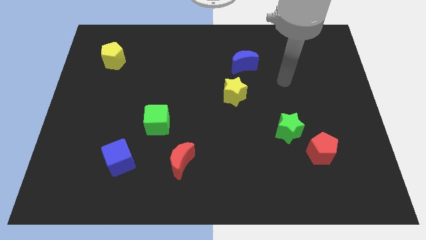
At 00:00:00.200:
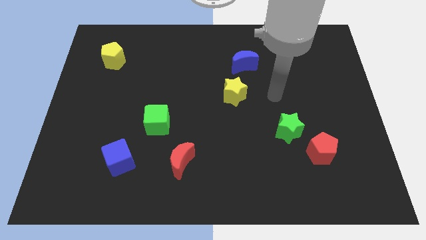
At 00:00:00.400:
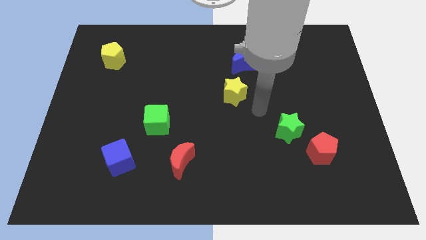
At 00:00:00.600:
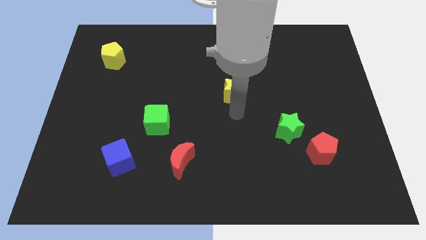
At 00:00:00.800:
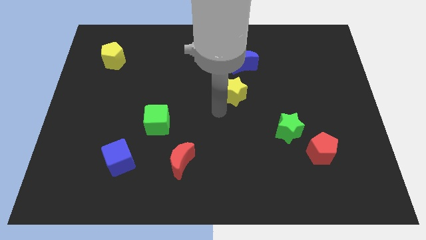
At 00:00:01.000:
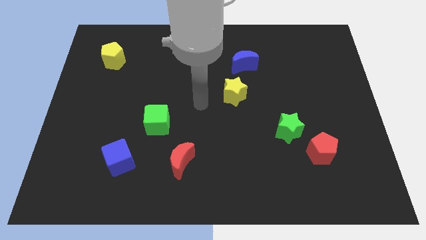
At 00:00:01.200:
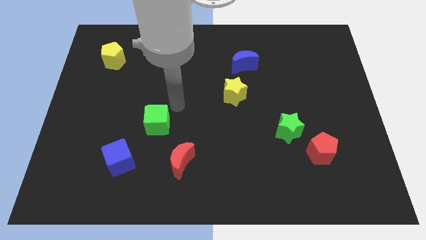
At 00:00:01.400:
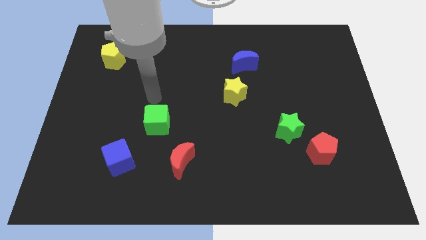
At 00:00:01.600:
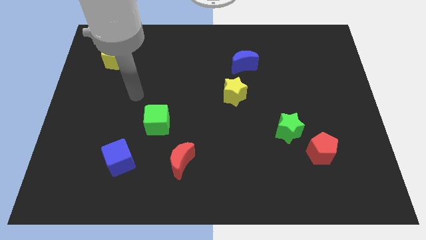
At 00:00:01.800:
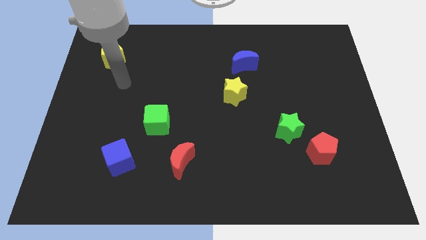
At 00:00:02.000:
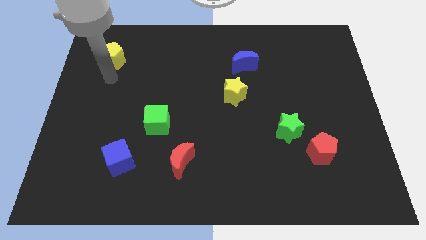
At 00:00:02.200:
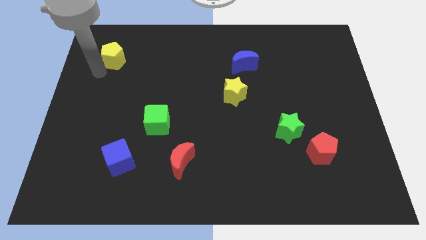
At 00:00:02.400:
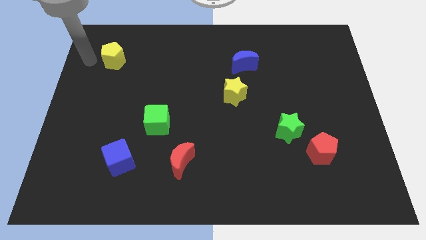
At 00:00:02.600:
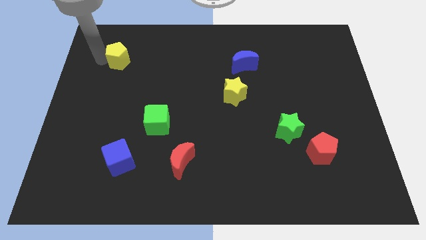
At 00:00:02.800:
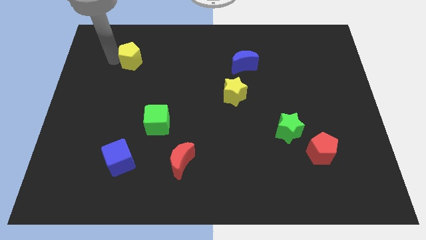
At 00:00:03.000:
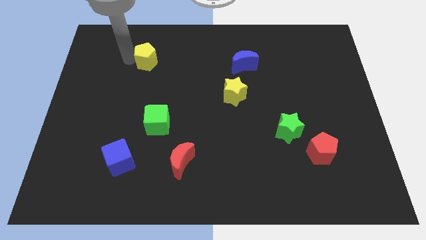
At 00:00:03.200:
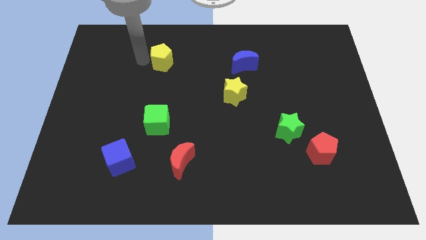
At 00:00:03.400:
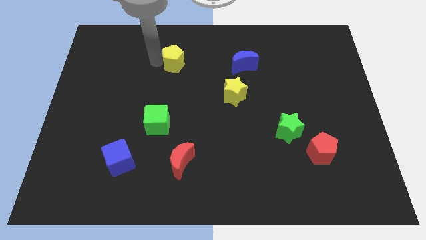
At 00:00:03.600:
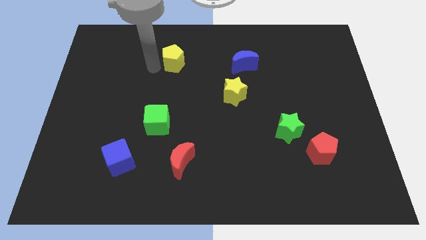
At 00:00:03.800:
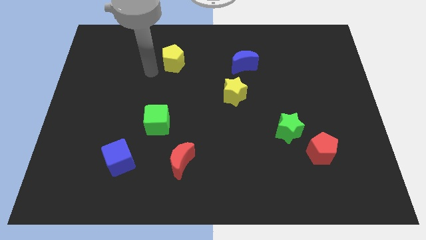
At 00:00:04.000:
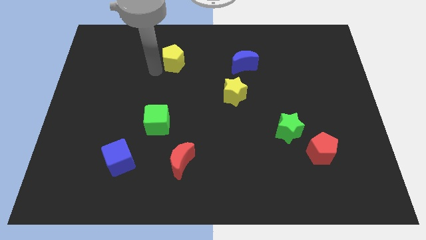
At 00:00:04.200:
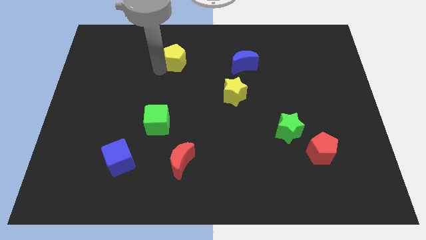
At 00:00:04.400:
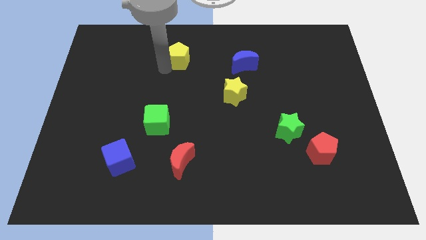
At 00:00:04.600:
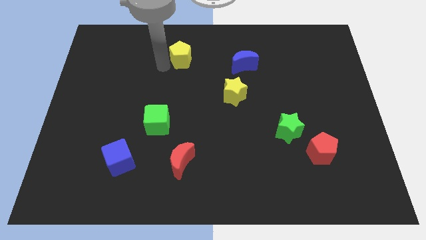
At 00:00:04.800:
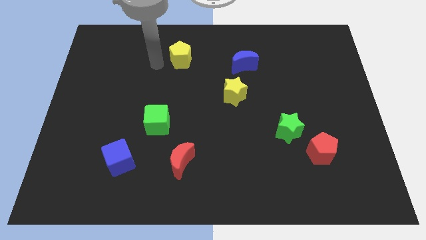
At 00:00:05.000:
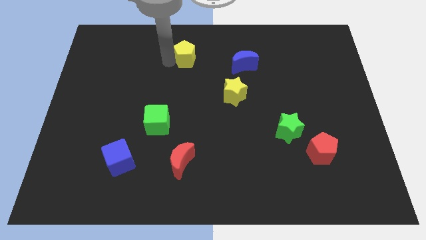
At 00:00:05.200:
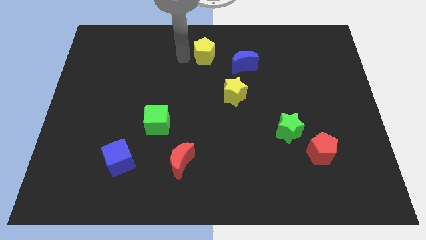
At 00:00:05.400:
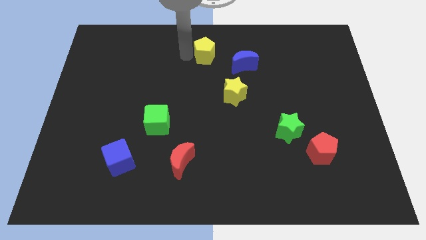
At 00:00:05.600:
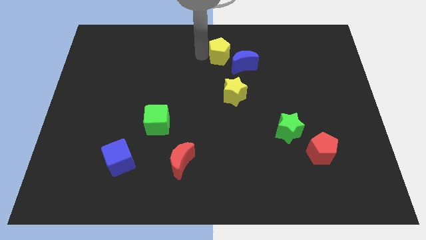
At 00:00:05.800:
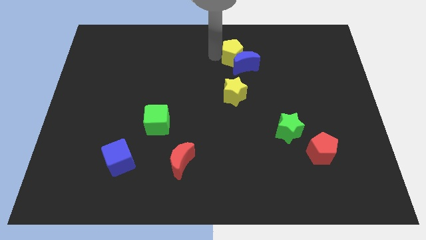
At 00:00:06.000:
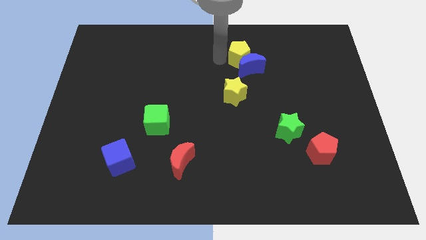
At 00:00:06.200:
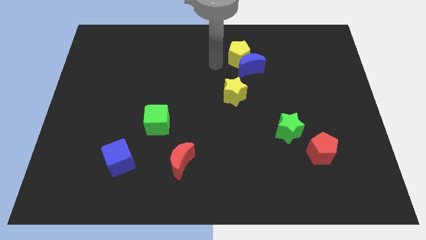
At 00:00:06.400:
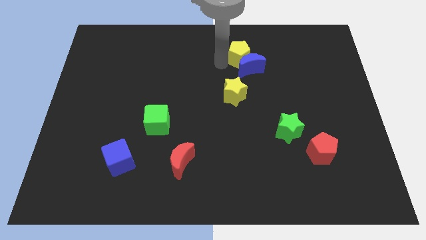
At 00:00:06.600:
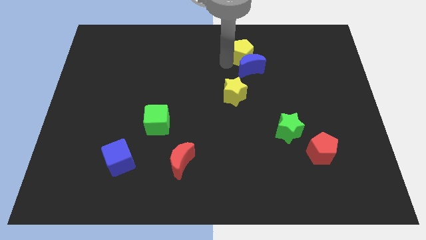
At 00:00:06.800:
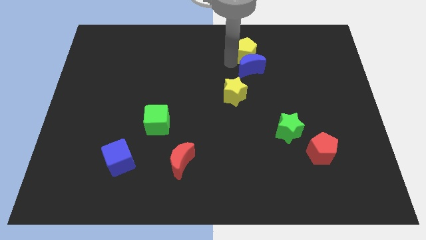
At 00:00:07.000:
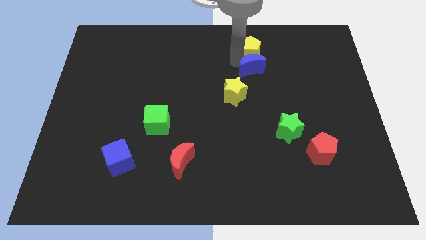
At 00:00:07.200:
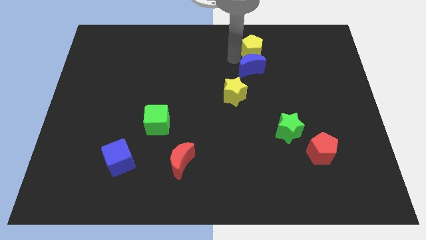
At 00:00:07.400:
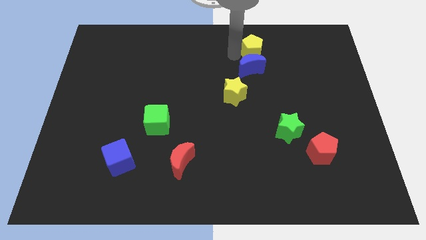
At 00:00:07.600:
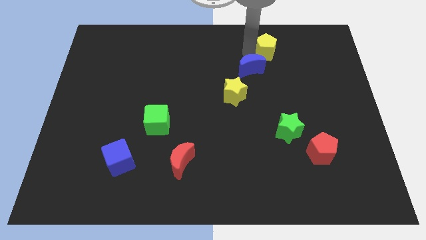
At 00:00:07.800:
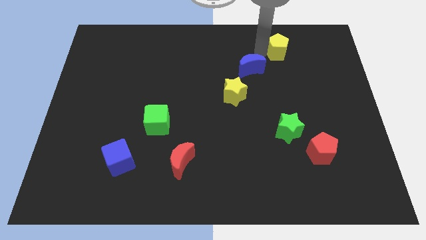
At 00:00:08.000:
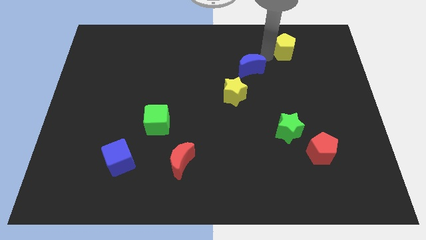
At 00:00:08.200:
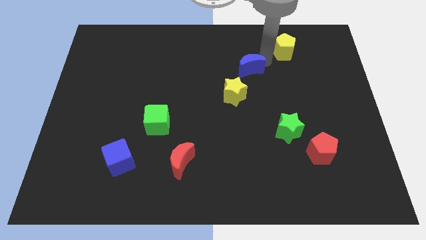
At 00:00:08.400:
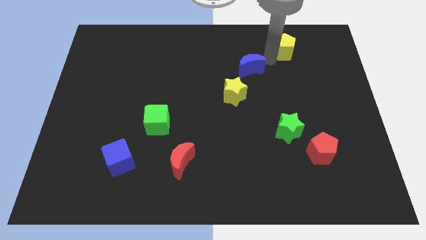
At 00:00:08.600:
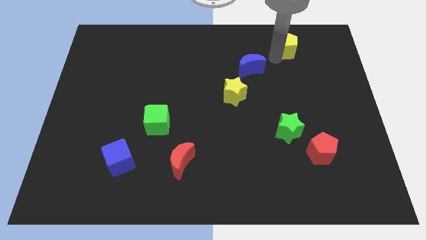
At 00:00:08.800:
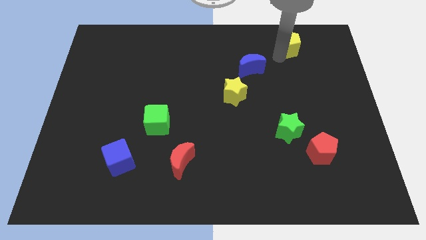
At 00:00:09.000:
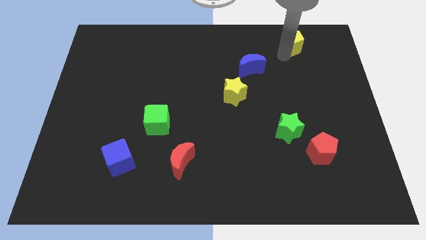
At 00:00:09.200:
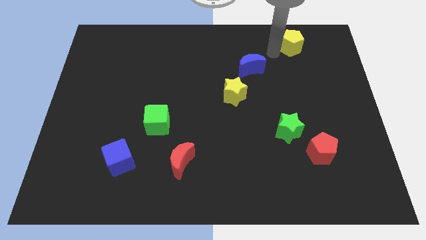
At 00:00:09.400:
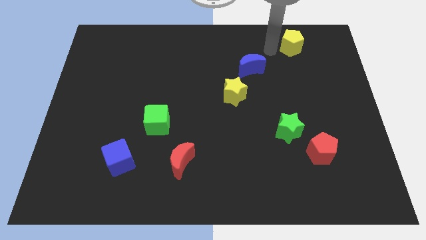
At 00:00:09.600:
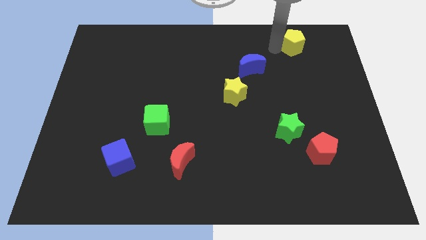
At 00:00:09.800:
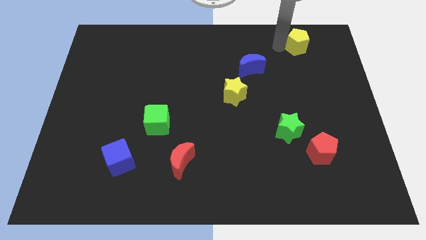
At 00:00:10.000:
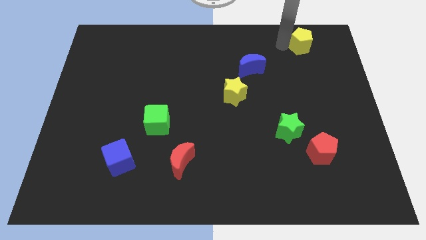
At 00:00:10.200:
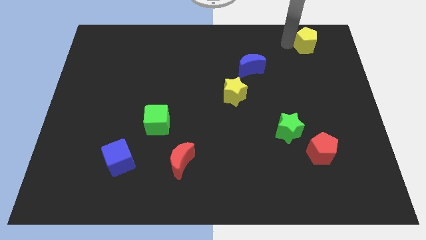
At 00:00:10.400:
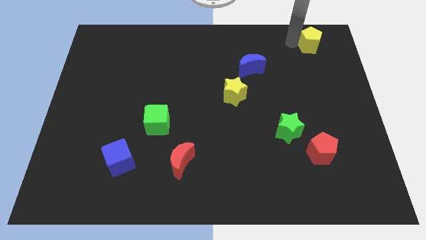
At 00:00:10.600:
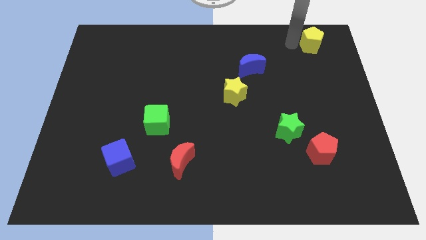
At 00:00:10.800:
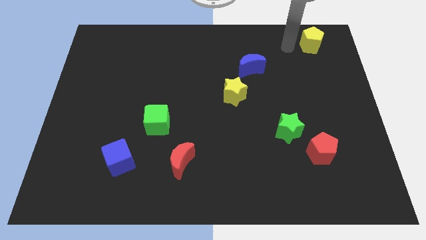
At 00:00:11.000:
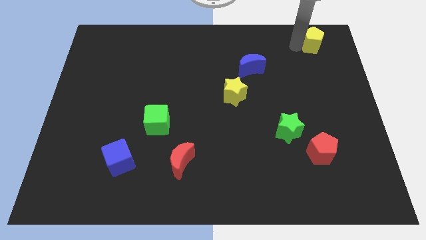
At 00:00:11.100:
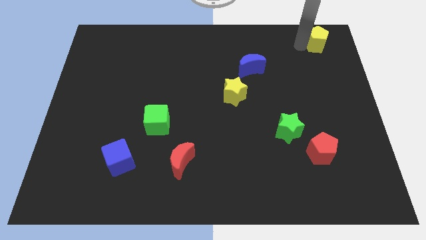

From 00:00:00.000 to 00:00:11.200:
move the yellow pentagon to the top right

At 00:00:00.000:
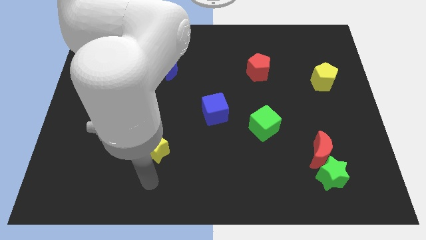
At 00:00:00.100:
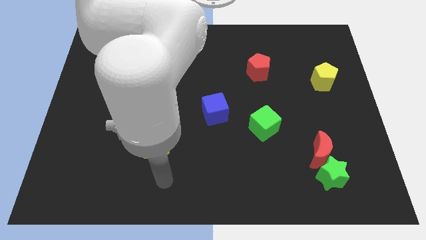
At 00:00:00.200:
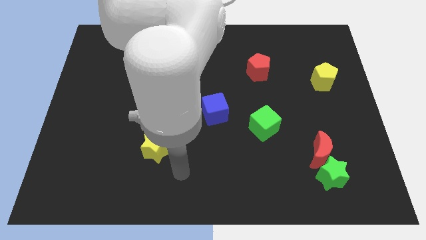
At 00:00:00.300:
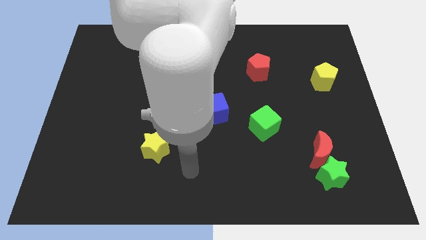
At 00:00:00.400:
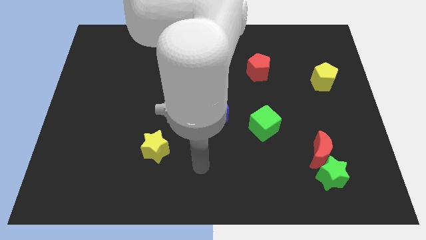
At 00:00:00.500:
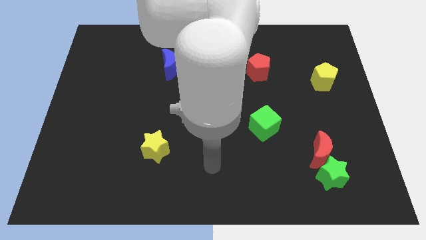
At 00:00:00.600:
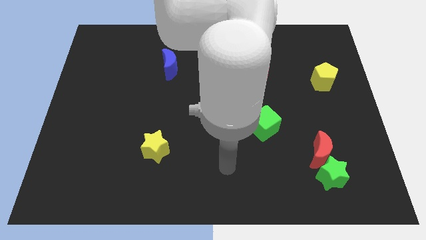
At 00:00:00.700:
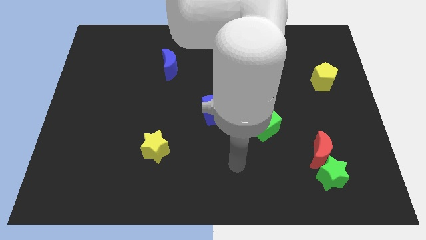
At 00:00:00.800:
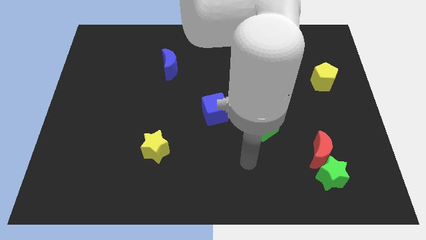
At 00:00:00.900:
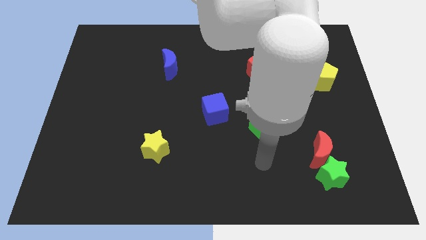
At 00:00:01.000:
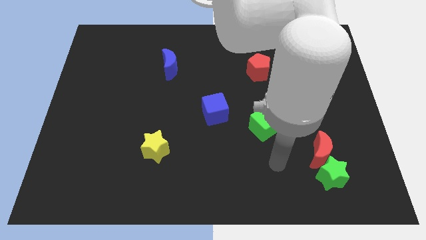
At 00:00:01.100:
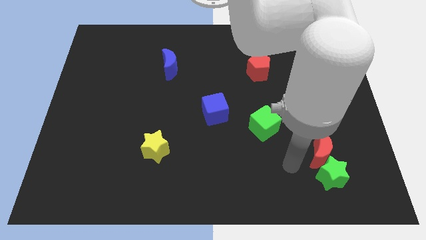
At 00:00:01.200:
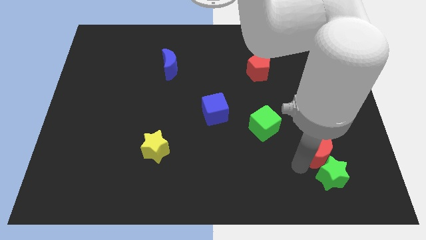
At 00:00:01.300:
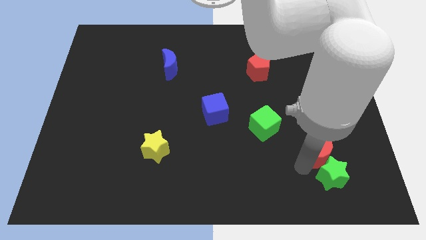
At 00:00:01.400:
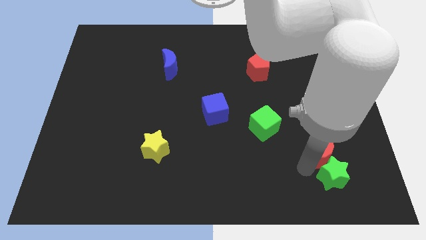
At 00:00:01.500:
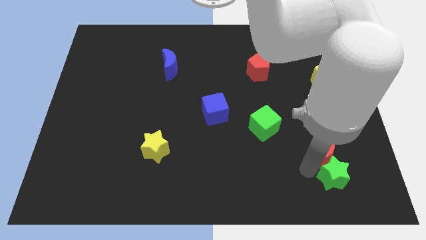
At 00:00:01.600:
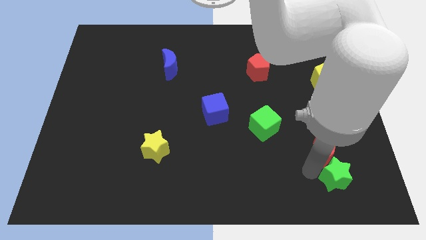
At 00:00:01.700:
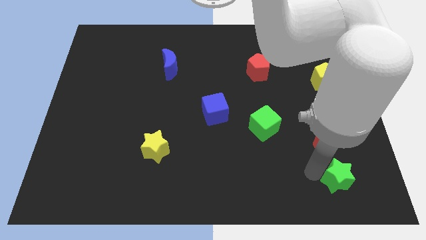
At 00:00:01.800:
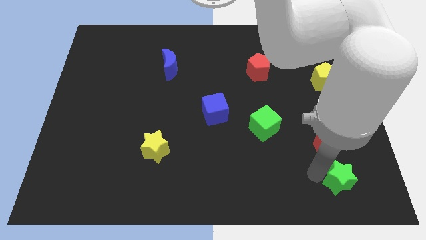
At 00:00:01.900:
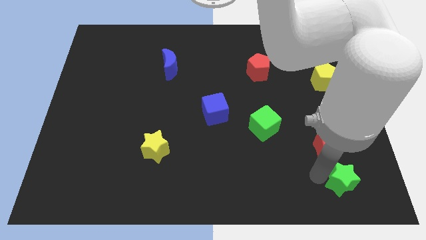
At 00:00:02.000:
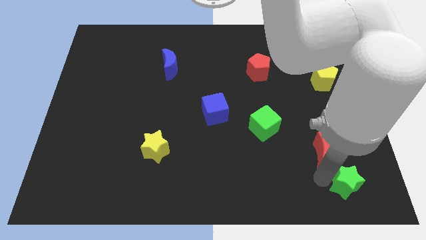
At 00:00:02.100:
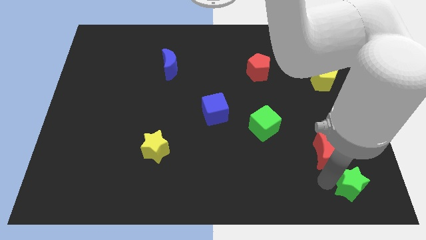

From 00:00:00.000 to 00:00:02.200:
push the green star to the bottom right of the board
